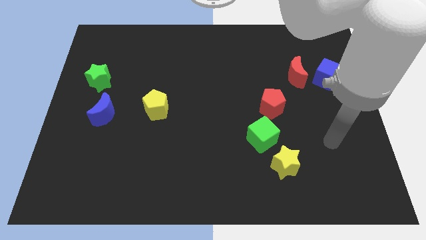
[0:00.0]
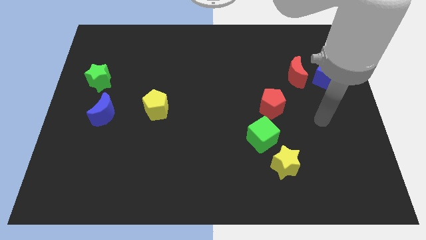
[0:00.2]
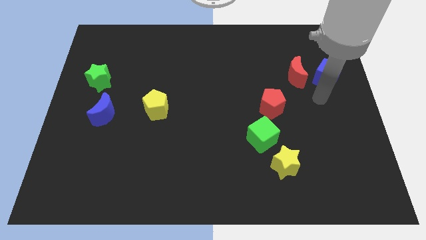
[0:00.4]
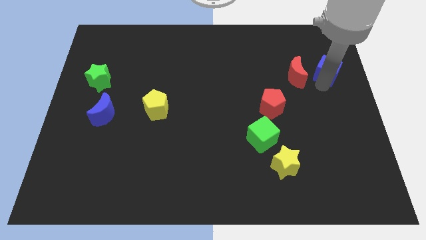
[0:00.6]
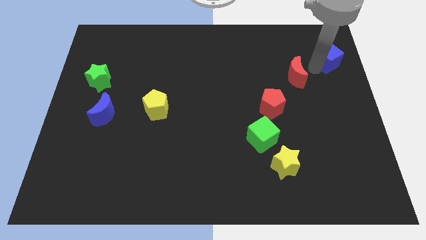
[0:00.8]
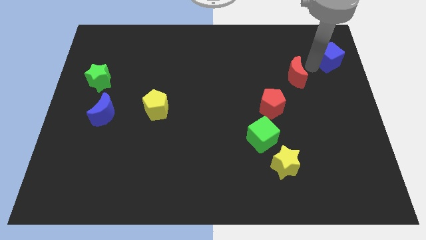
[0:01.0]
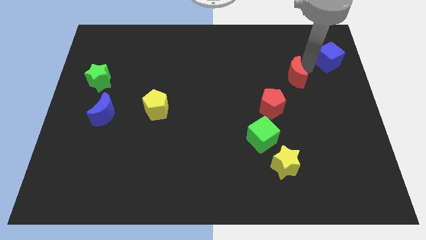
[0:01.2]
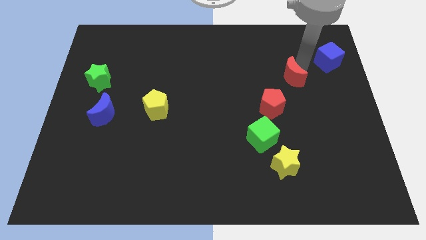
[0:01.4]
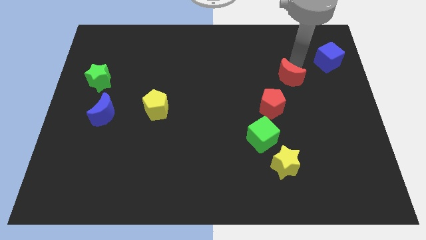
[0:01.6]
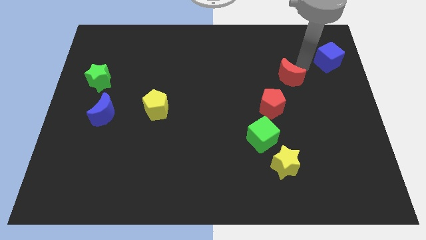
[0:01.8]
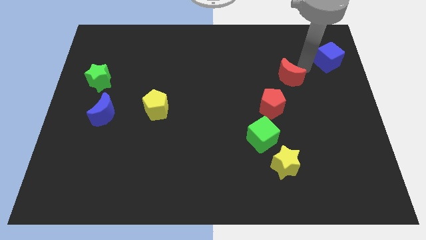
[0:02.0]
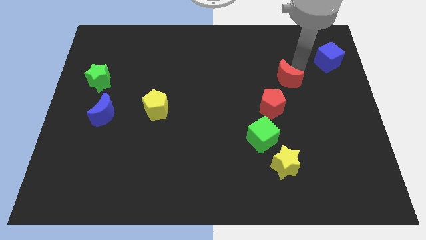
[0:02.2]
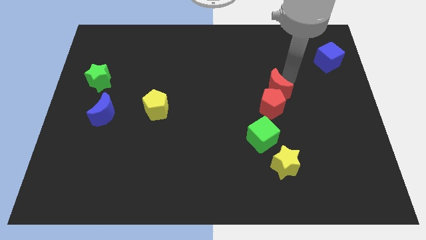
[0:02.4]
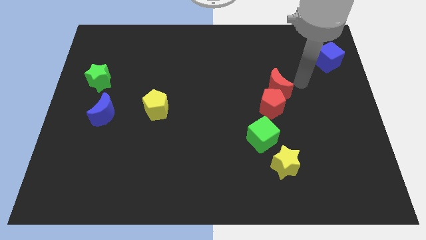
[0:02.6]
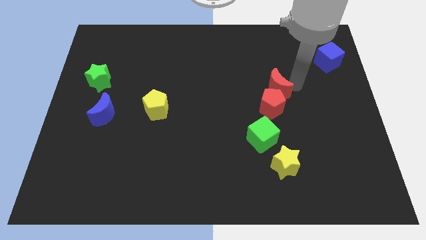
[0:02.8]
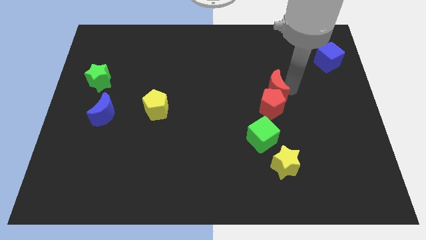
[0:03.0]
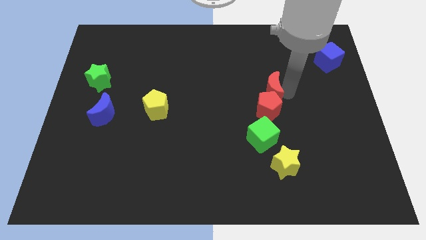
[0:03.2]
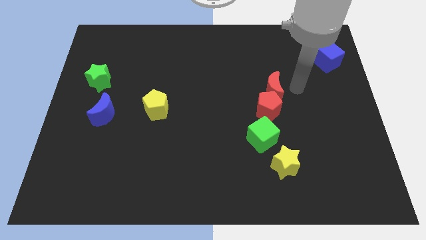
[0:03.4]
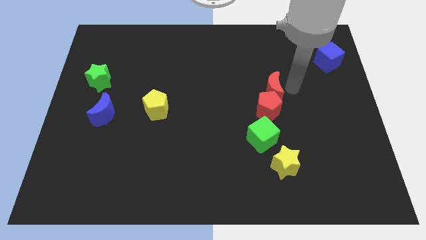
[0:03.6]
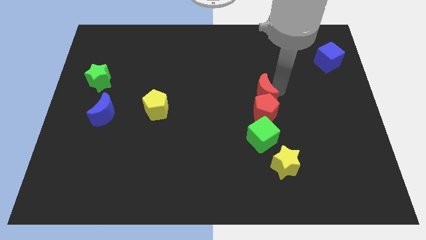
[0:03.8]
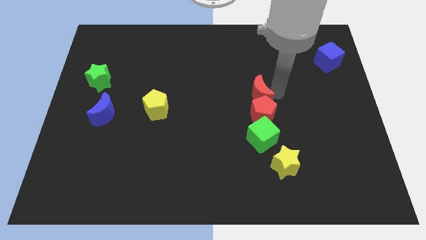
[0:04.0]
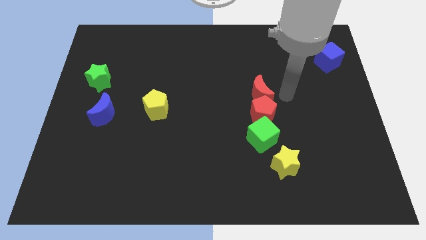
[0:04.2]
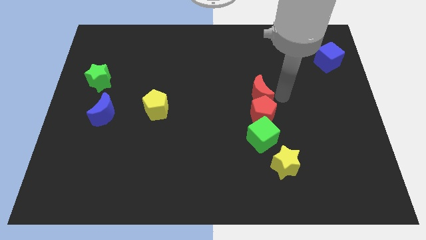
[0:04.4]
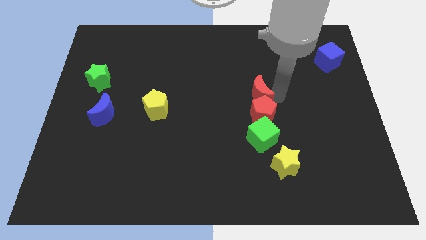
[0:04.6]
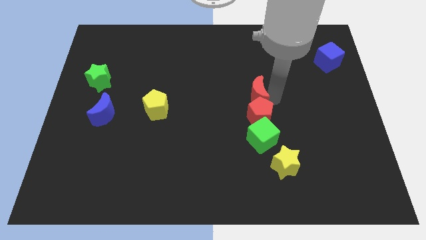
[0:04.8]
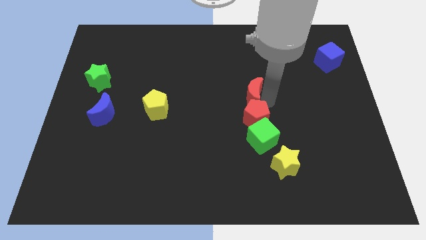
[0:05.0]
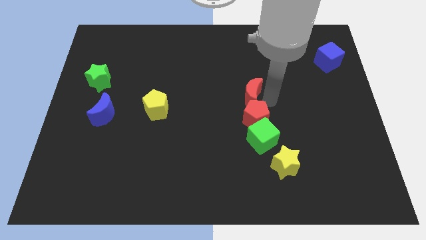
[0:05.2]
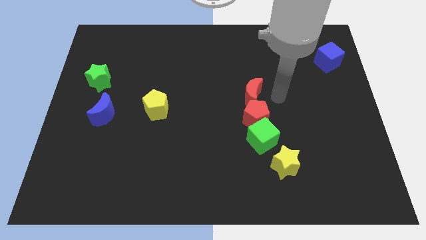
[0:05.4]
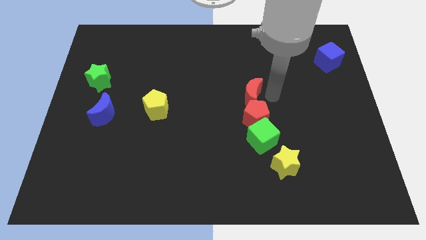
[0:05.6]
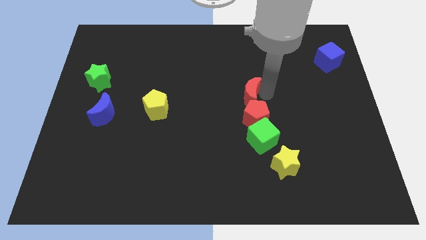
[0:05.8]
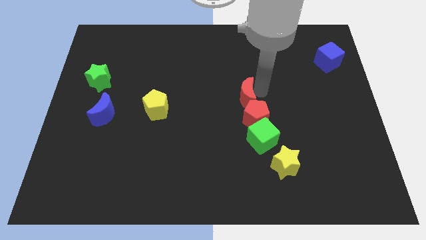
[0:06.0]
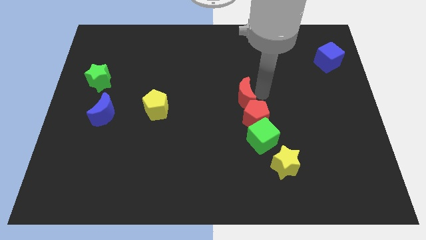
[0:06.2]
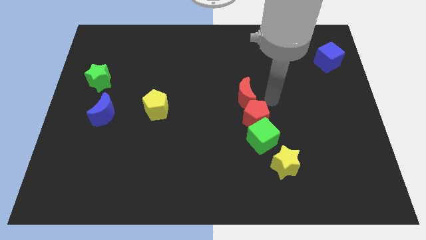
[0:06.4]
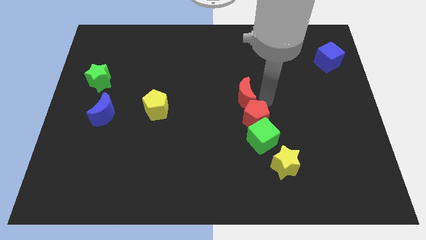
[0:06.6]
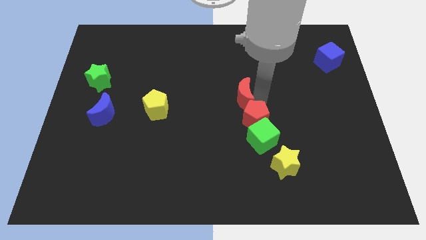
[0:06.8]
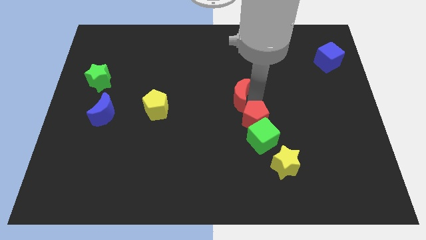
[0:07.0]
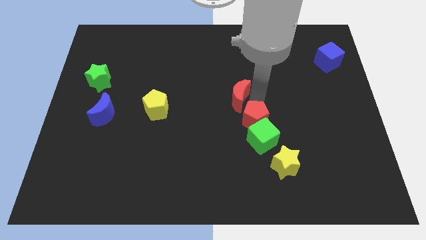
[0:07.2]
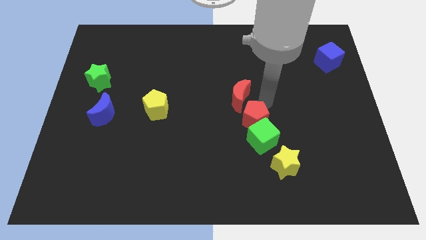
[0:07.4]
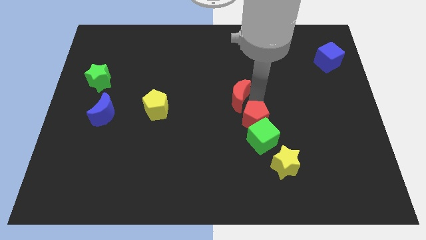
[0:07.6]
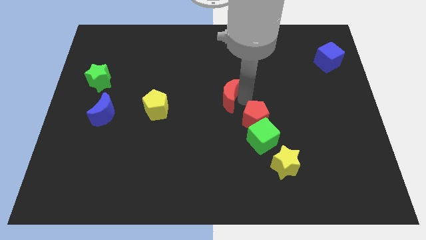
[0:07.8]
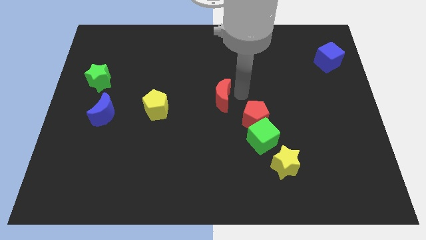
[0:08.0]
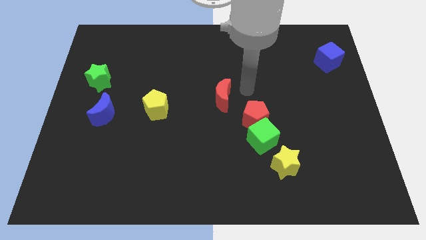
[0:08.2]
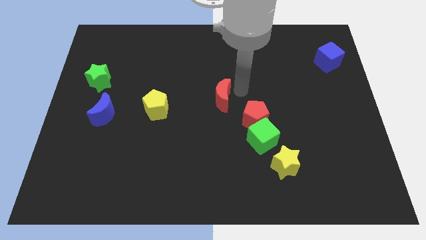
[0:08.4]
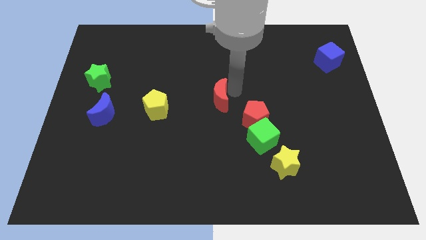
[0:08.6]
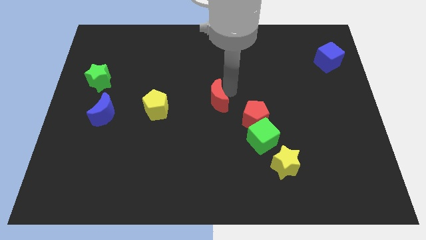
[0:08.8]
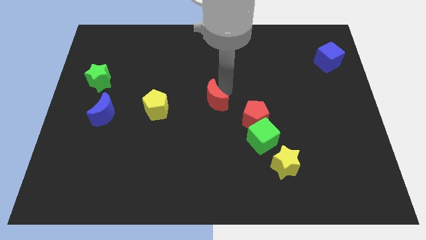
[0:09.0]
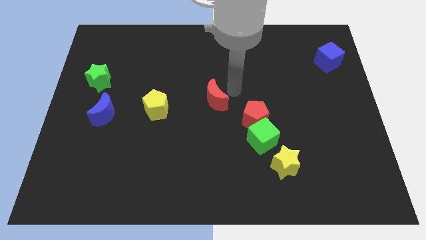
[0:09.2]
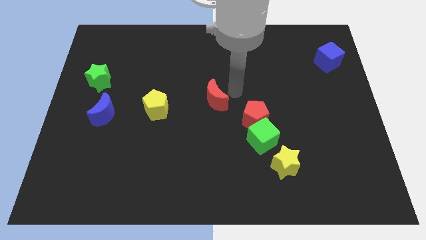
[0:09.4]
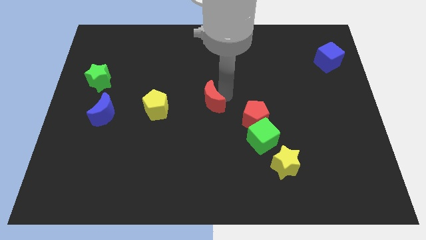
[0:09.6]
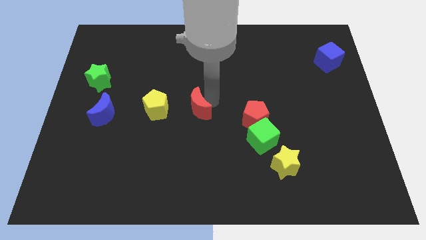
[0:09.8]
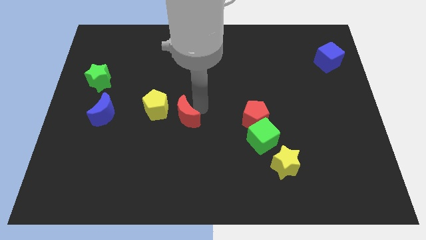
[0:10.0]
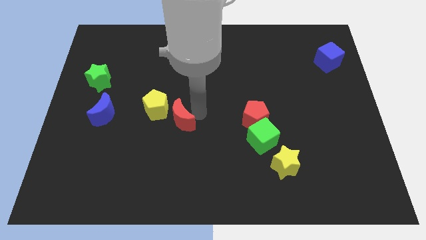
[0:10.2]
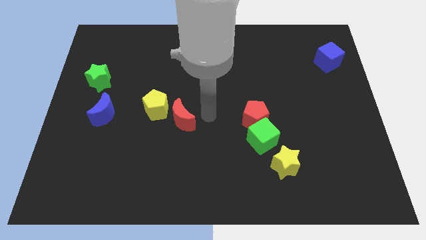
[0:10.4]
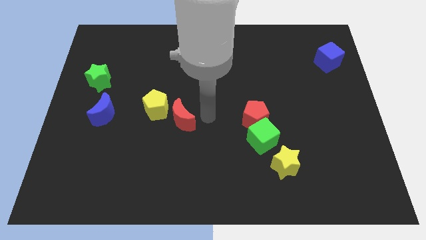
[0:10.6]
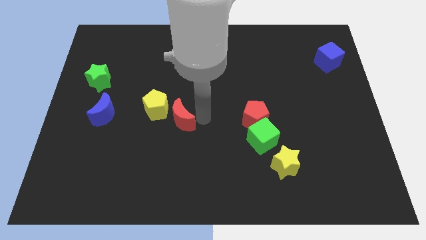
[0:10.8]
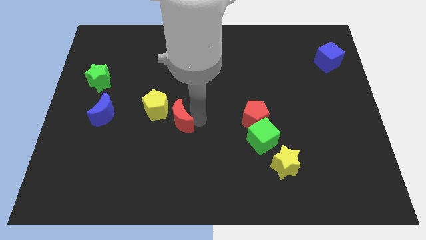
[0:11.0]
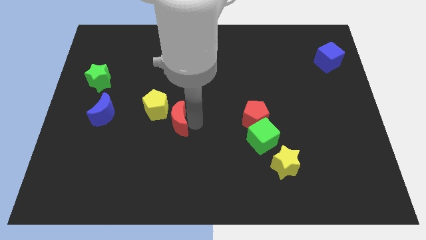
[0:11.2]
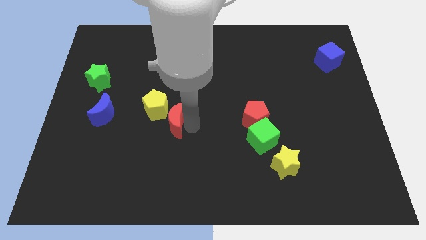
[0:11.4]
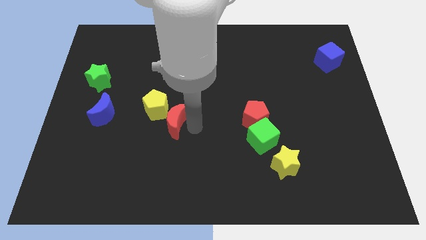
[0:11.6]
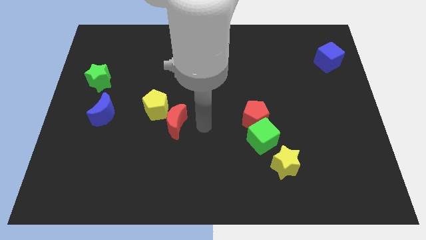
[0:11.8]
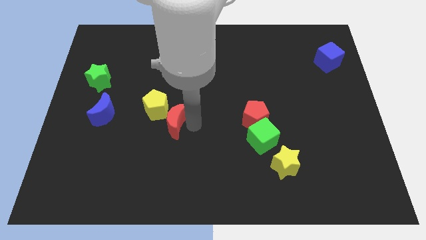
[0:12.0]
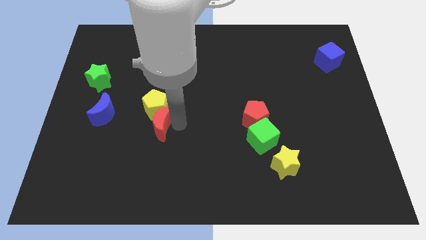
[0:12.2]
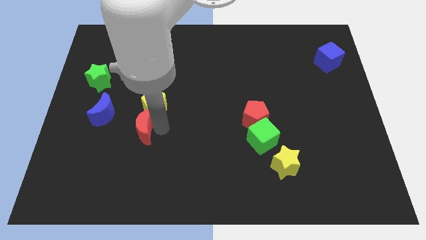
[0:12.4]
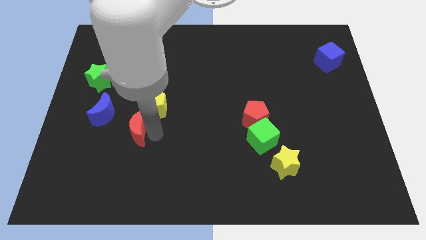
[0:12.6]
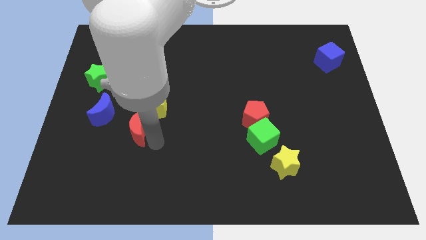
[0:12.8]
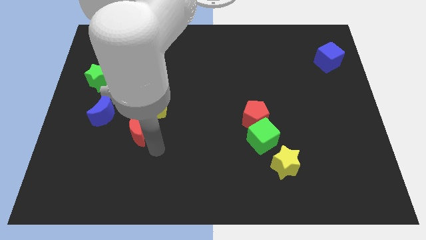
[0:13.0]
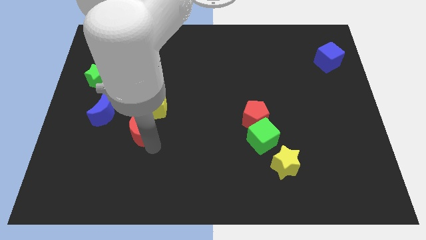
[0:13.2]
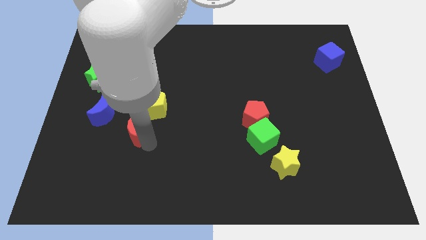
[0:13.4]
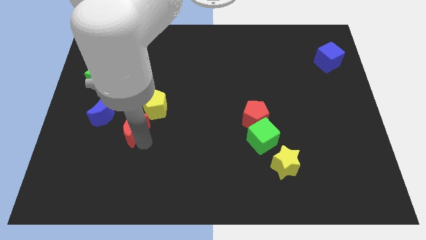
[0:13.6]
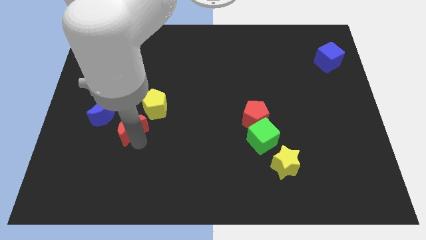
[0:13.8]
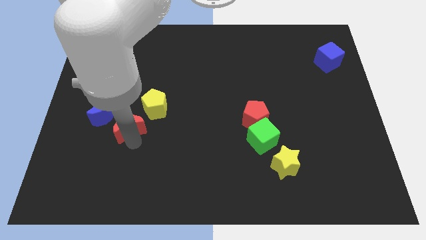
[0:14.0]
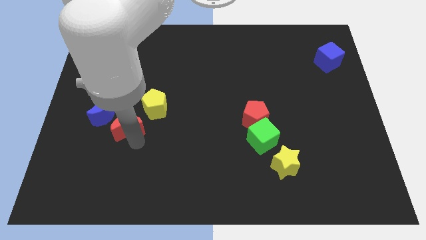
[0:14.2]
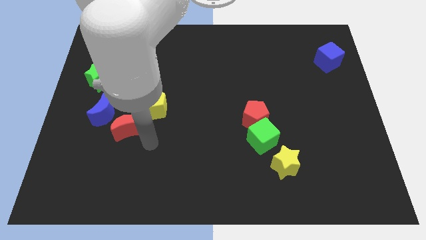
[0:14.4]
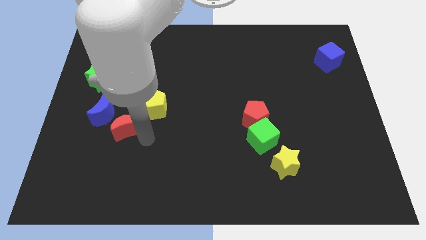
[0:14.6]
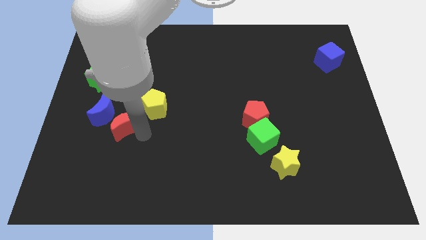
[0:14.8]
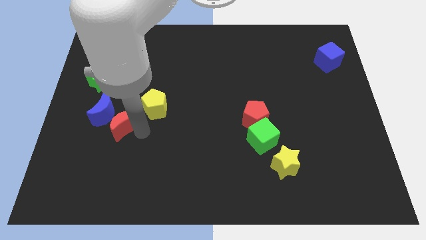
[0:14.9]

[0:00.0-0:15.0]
put the red moon towards the blue moon
